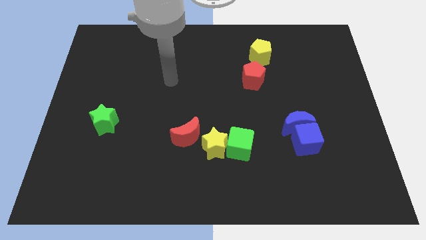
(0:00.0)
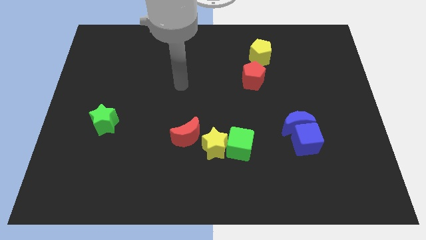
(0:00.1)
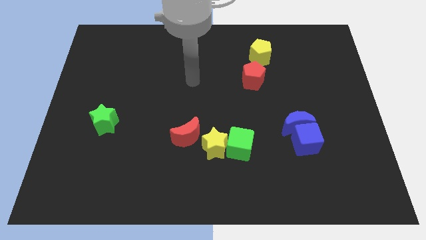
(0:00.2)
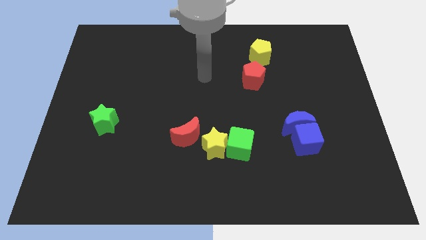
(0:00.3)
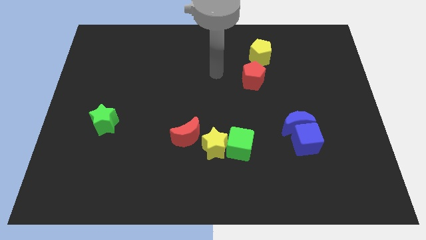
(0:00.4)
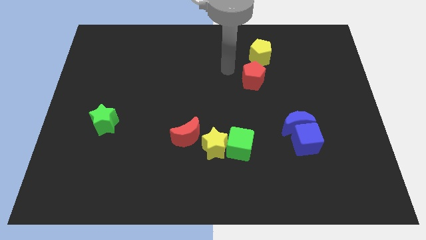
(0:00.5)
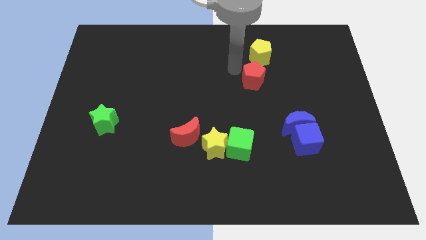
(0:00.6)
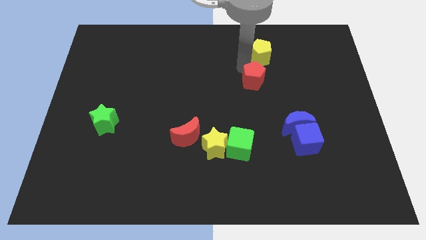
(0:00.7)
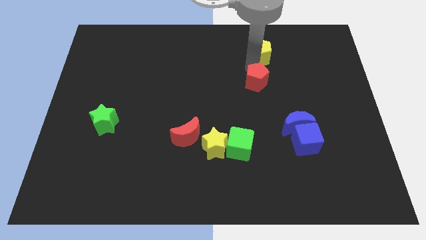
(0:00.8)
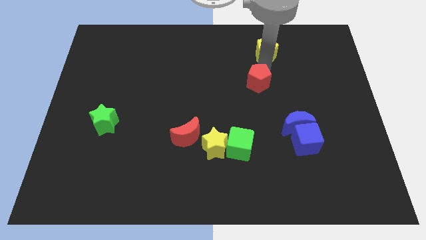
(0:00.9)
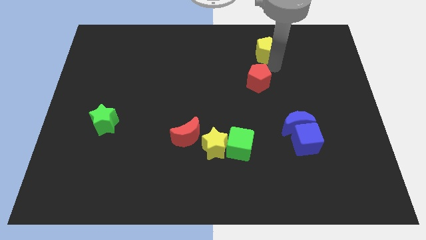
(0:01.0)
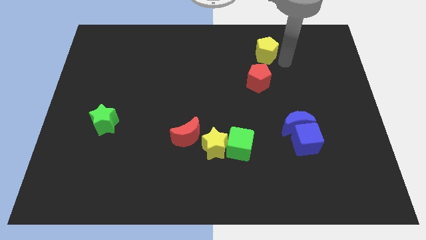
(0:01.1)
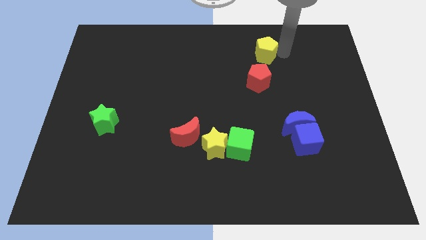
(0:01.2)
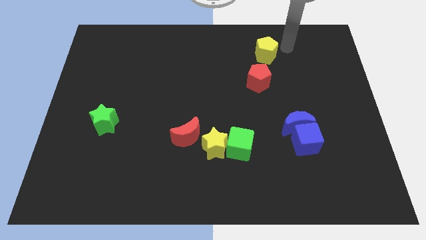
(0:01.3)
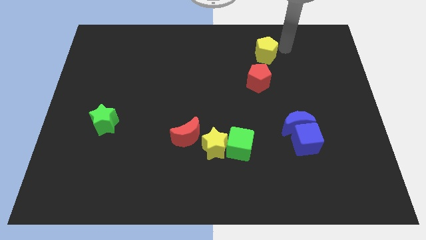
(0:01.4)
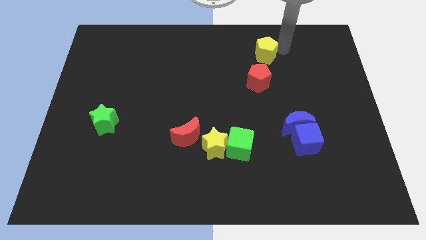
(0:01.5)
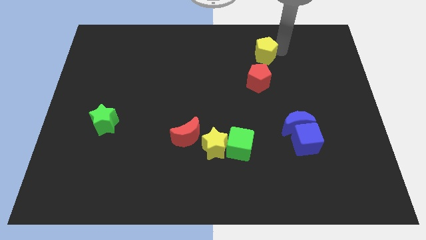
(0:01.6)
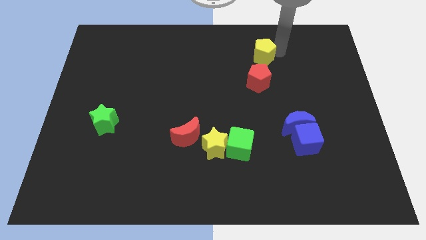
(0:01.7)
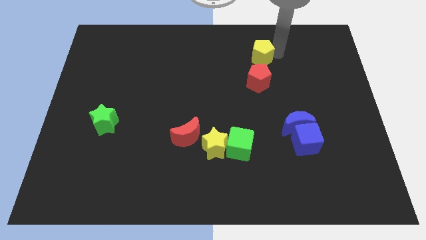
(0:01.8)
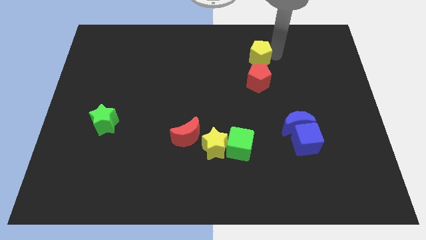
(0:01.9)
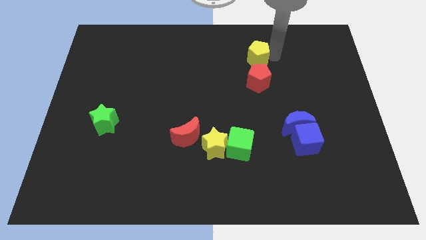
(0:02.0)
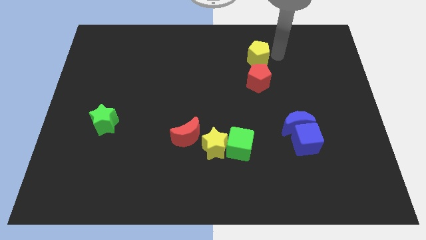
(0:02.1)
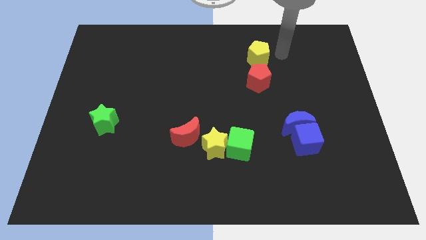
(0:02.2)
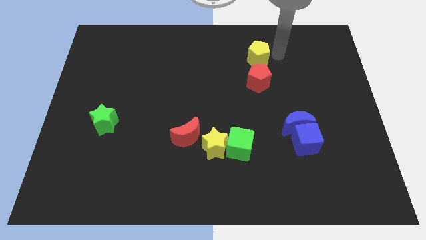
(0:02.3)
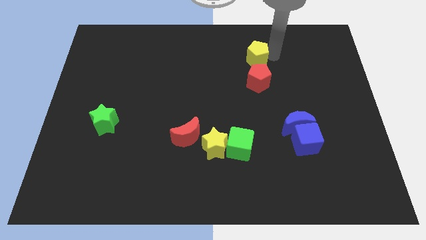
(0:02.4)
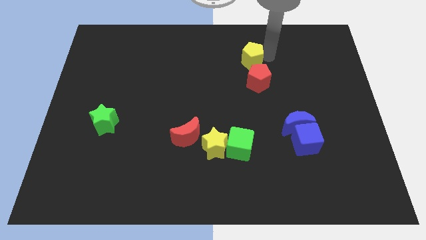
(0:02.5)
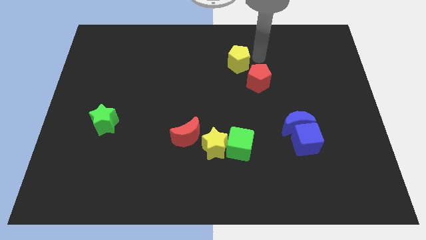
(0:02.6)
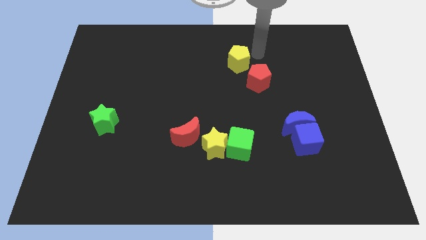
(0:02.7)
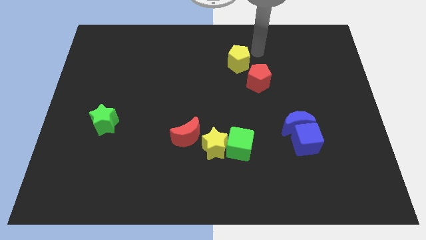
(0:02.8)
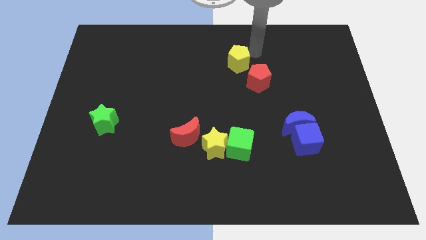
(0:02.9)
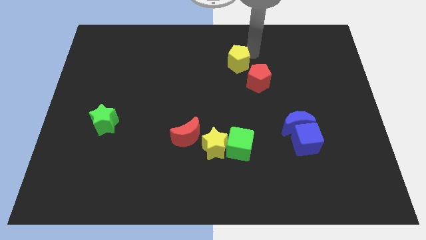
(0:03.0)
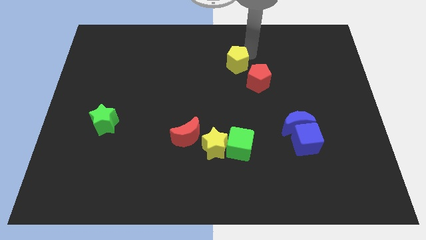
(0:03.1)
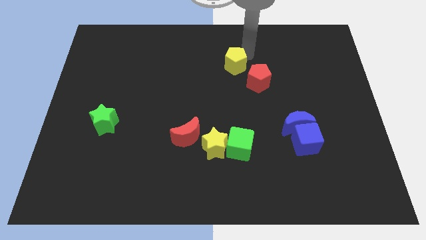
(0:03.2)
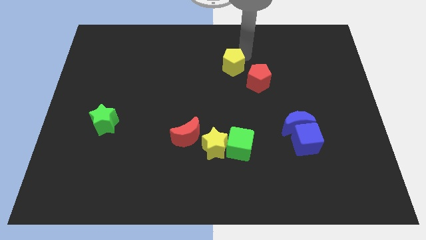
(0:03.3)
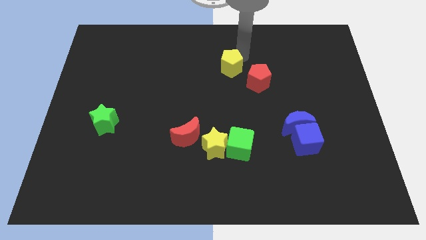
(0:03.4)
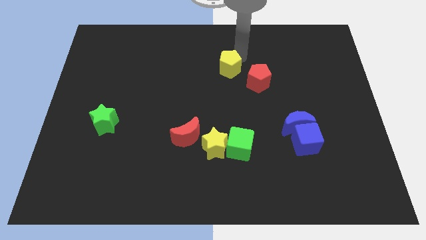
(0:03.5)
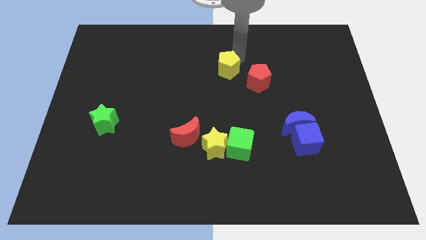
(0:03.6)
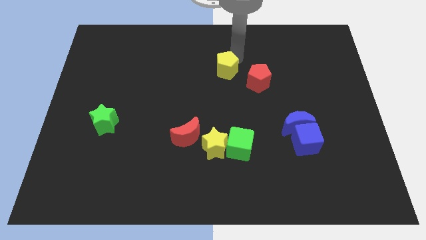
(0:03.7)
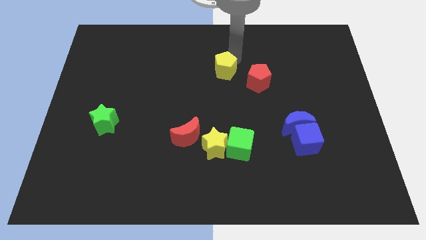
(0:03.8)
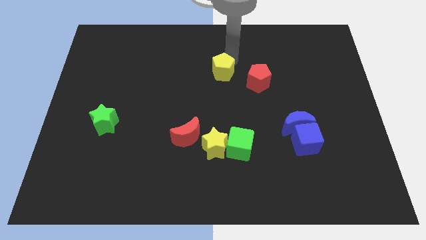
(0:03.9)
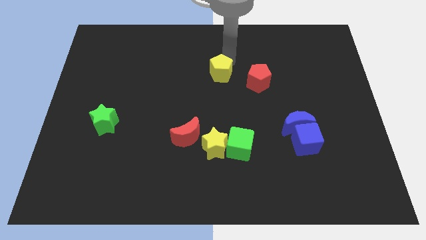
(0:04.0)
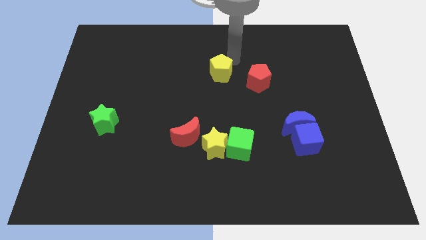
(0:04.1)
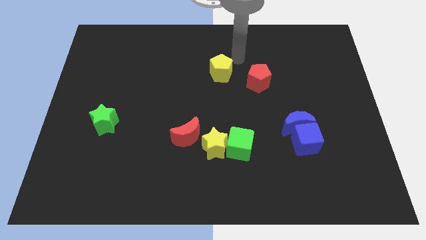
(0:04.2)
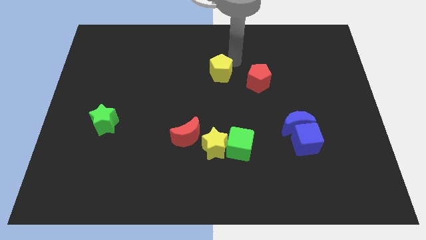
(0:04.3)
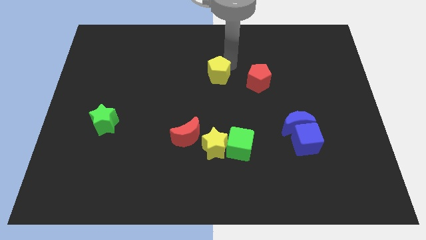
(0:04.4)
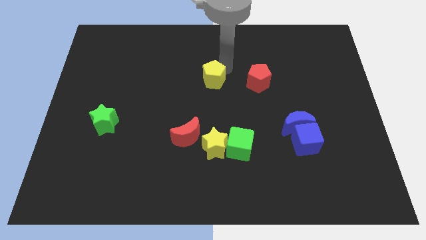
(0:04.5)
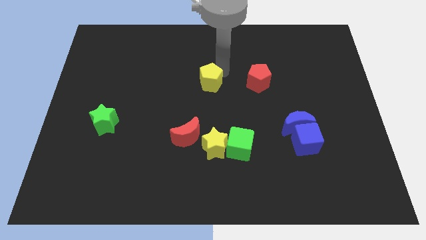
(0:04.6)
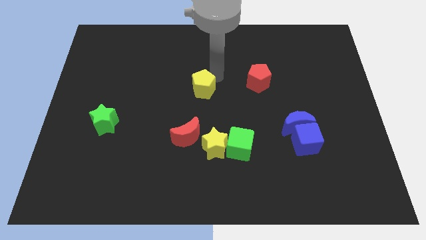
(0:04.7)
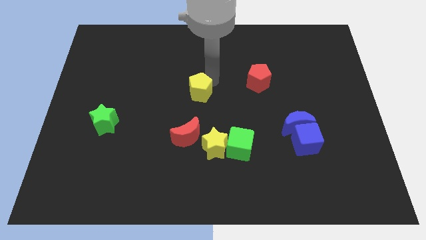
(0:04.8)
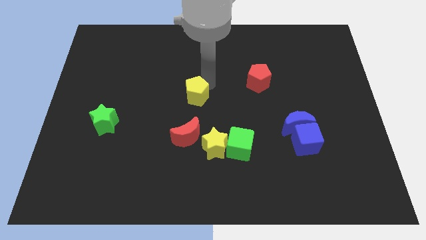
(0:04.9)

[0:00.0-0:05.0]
move the yellow pentagon down and then left

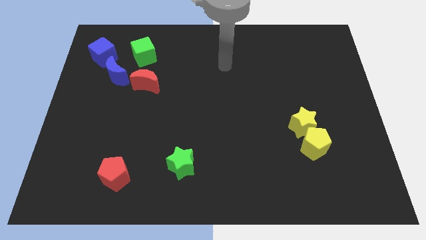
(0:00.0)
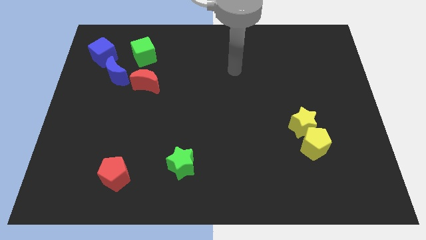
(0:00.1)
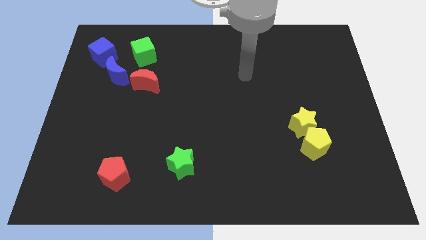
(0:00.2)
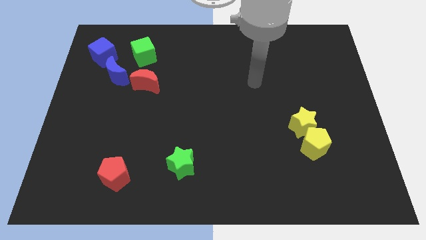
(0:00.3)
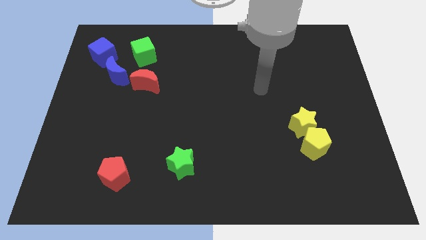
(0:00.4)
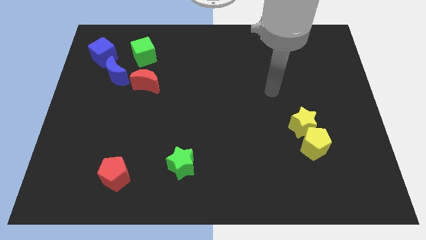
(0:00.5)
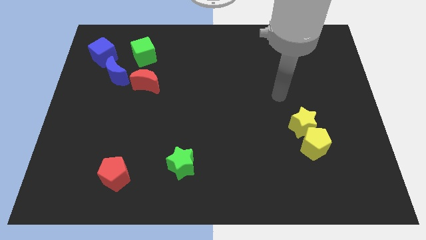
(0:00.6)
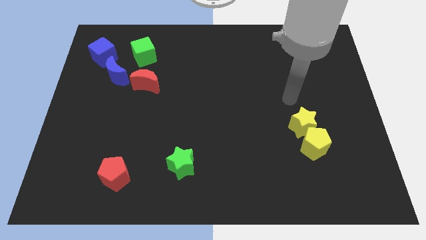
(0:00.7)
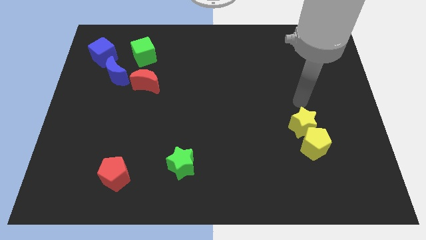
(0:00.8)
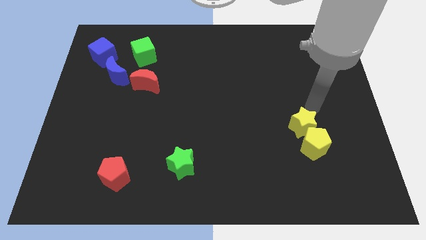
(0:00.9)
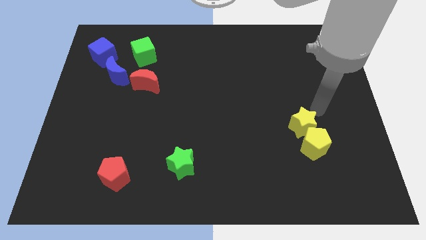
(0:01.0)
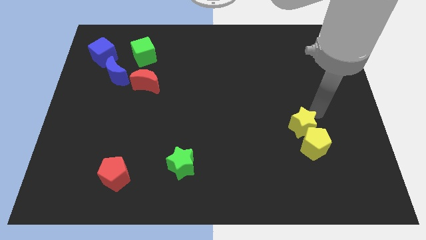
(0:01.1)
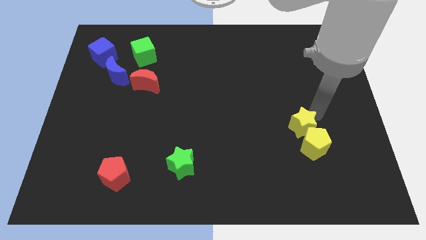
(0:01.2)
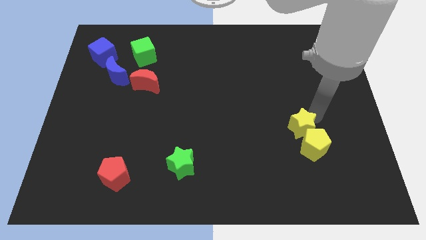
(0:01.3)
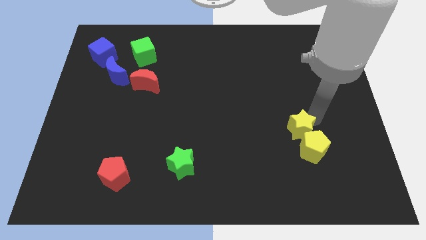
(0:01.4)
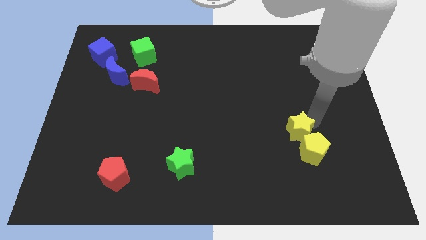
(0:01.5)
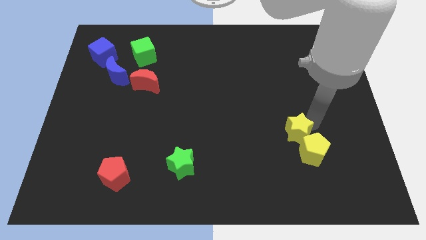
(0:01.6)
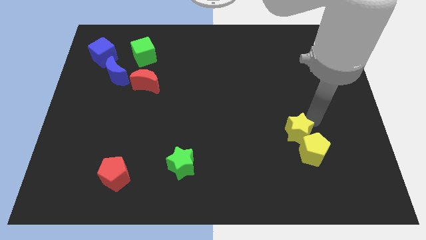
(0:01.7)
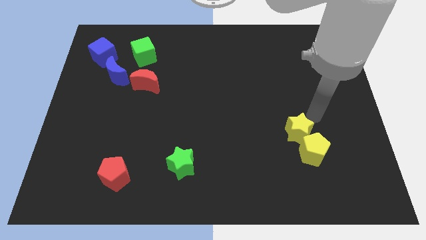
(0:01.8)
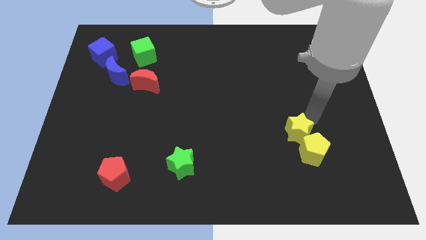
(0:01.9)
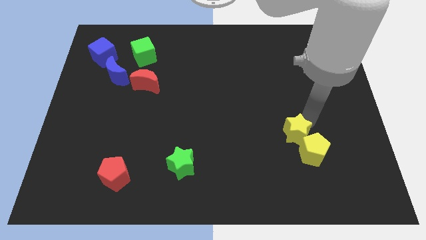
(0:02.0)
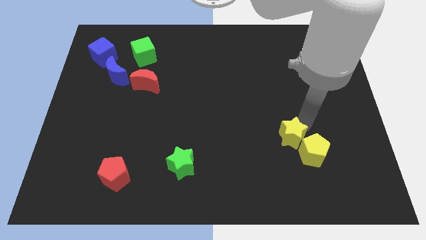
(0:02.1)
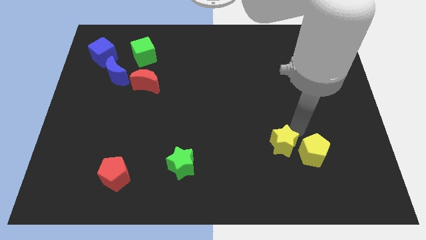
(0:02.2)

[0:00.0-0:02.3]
slightly slide the yellow star down and then left

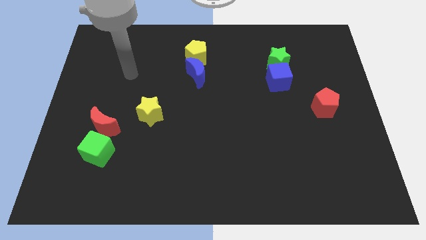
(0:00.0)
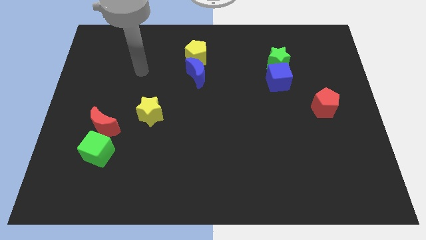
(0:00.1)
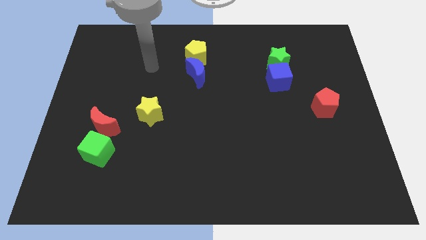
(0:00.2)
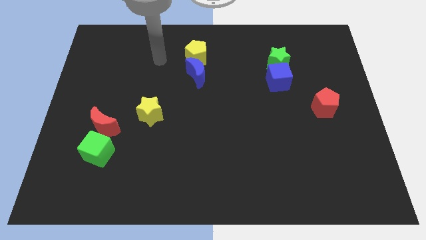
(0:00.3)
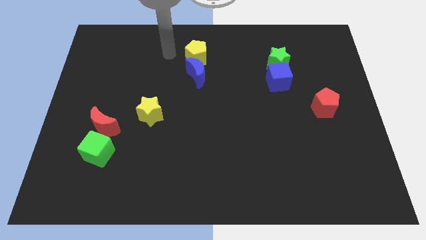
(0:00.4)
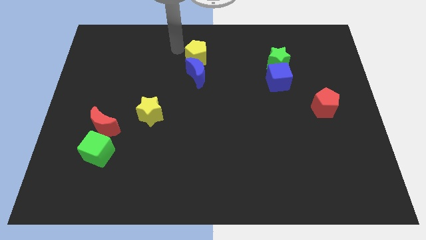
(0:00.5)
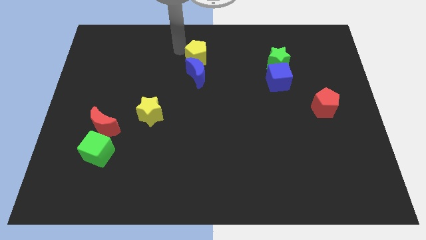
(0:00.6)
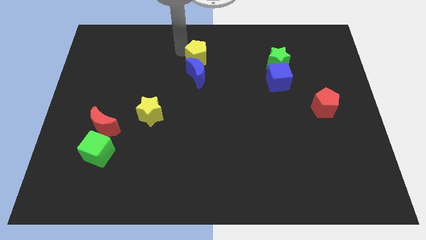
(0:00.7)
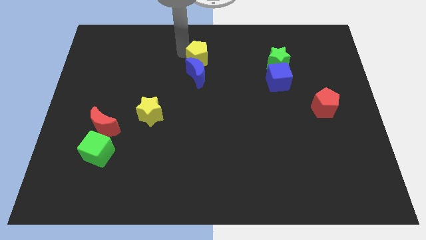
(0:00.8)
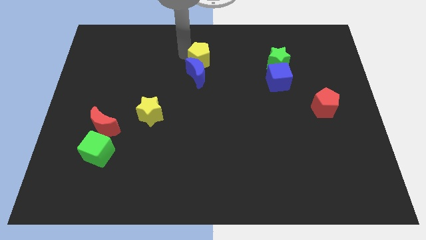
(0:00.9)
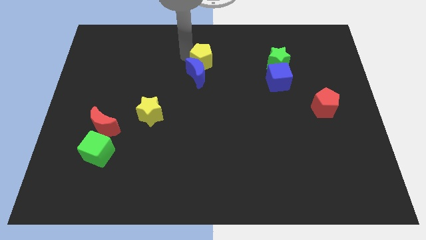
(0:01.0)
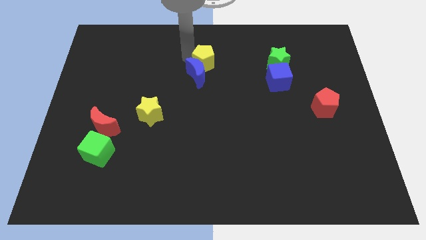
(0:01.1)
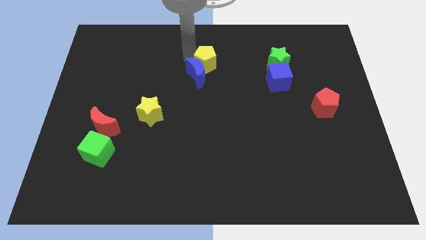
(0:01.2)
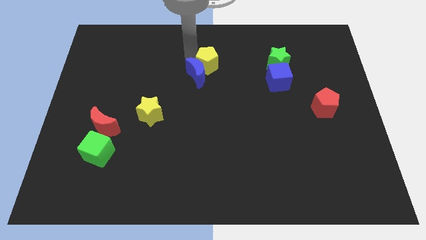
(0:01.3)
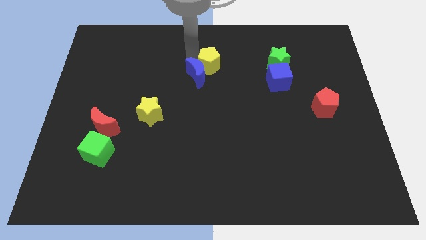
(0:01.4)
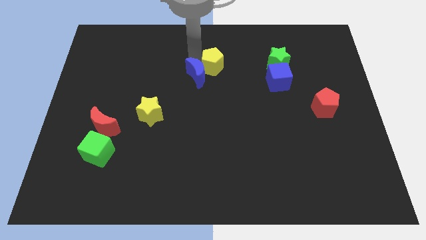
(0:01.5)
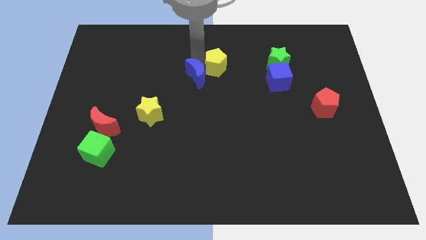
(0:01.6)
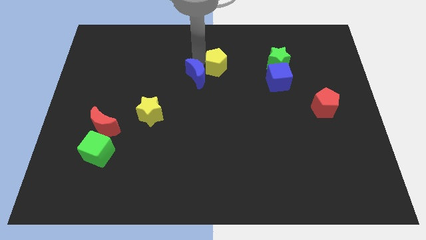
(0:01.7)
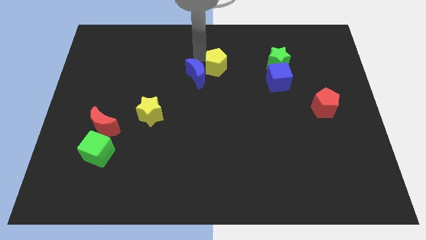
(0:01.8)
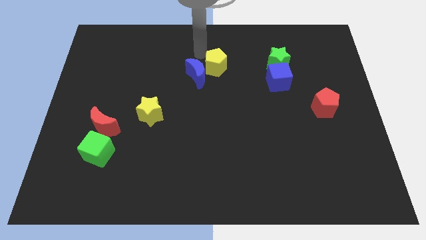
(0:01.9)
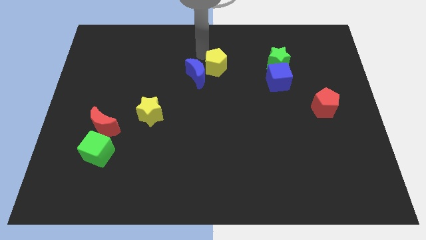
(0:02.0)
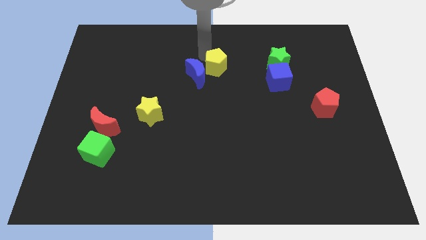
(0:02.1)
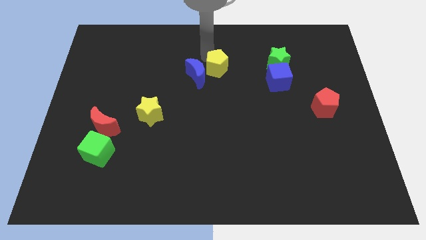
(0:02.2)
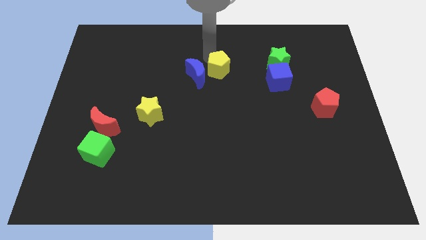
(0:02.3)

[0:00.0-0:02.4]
slide the yellow pentagon a little downwards and to the right diagonally
